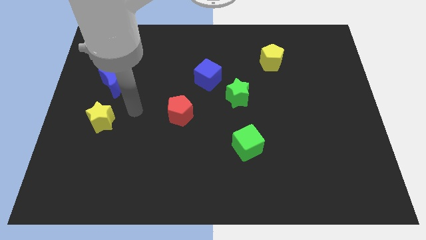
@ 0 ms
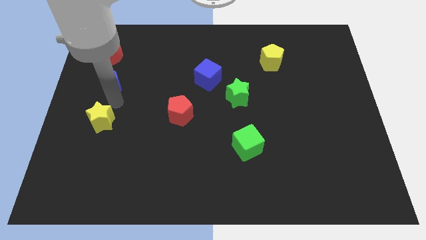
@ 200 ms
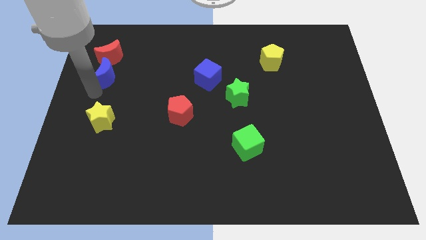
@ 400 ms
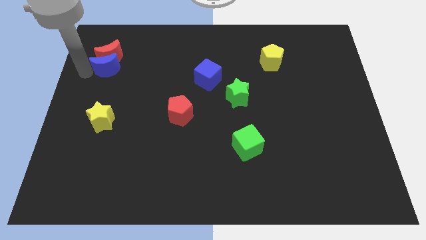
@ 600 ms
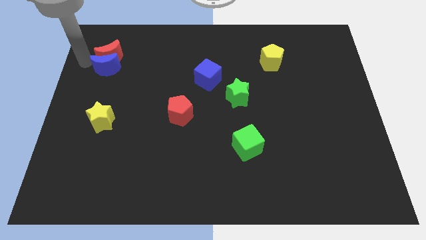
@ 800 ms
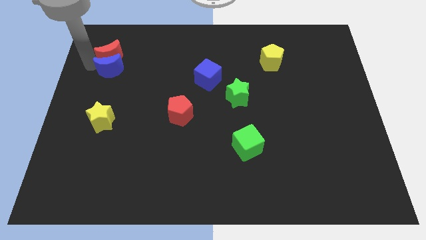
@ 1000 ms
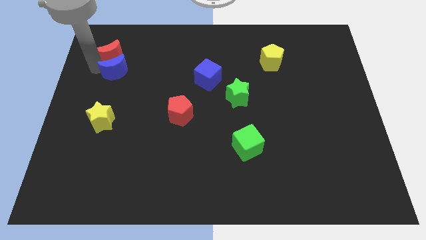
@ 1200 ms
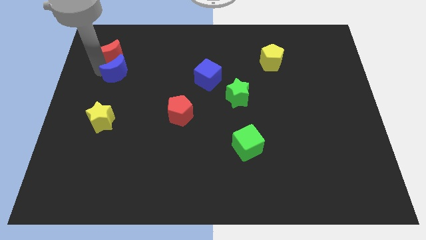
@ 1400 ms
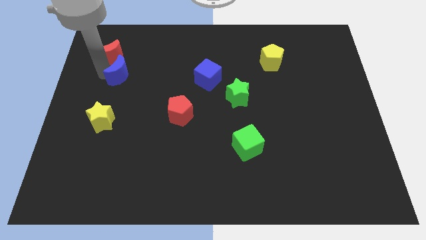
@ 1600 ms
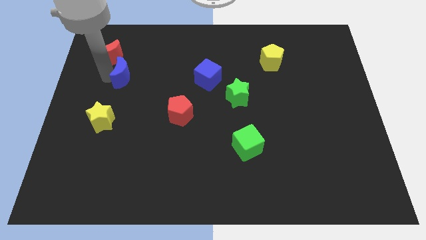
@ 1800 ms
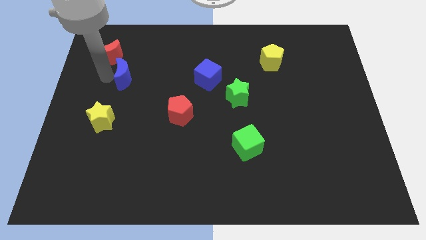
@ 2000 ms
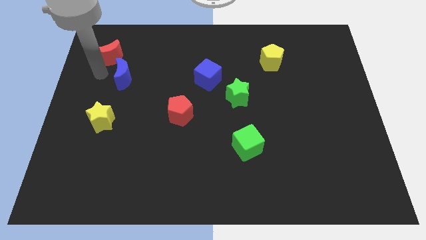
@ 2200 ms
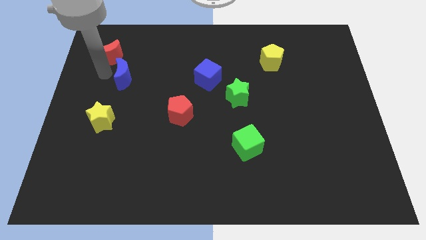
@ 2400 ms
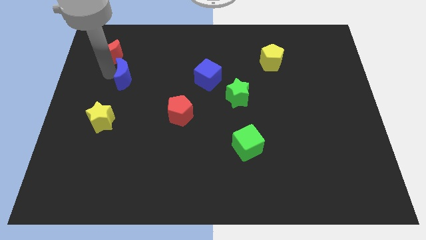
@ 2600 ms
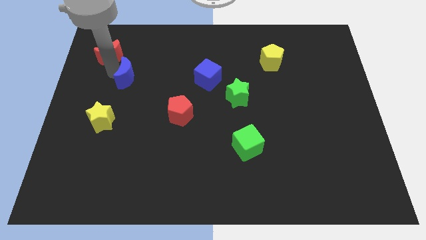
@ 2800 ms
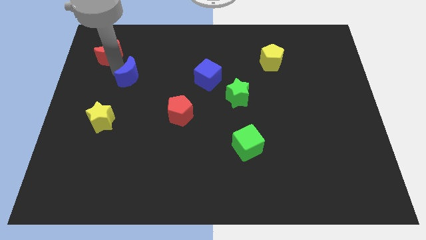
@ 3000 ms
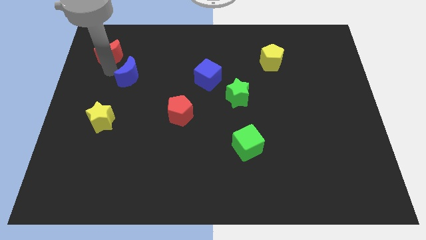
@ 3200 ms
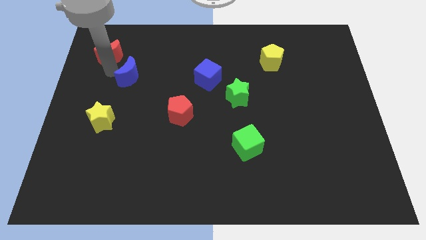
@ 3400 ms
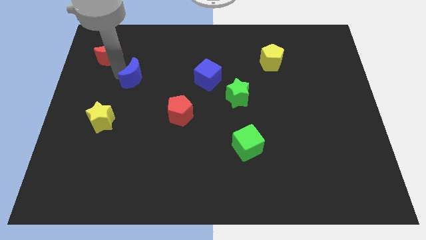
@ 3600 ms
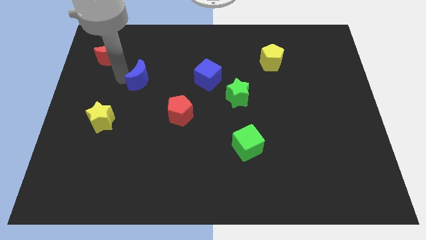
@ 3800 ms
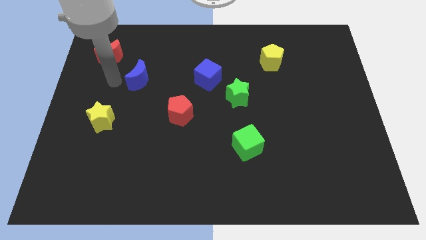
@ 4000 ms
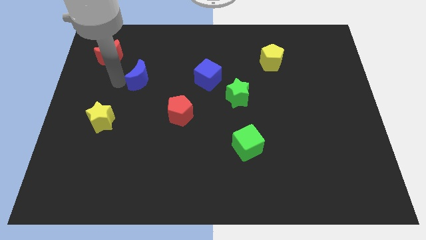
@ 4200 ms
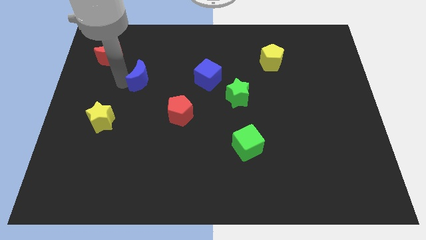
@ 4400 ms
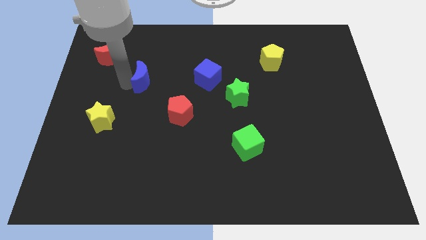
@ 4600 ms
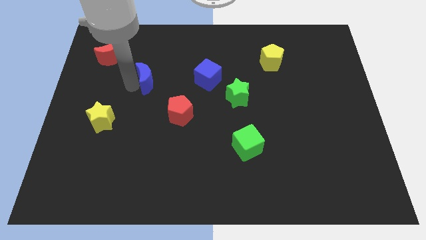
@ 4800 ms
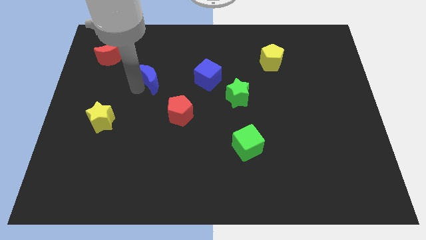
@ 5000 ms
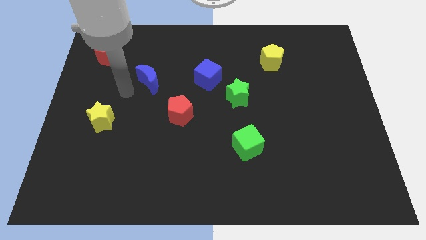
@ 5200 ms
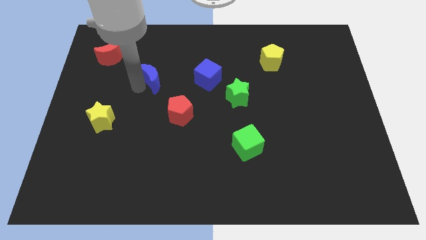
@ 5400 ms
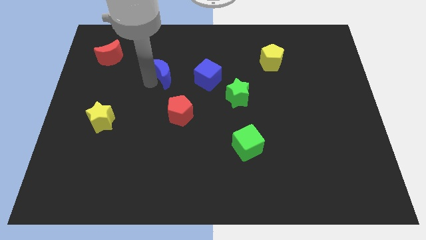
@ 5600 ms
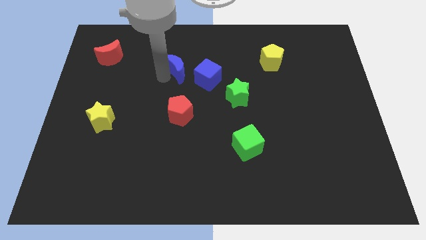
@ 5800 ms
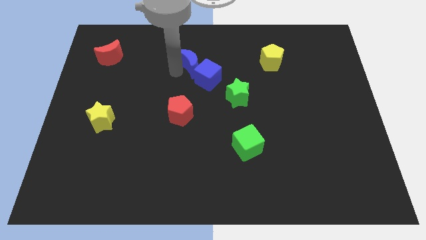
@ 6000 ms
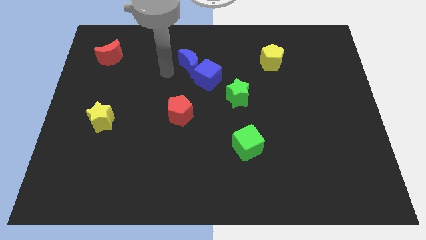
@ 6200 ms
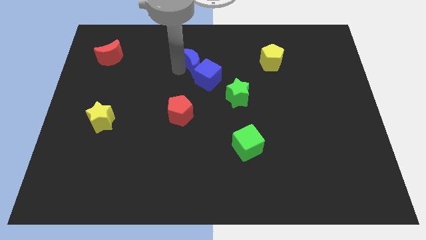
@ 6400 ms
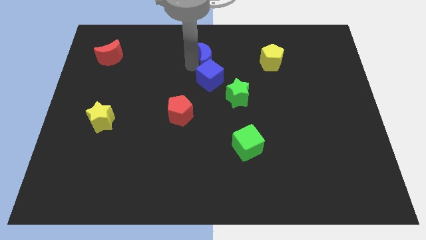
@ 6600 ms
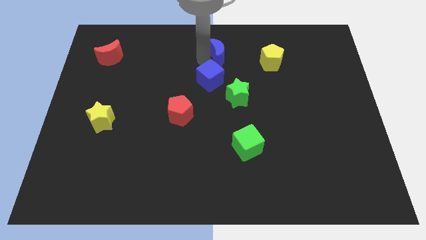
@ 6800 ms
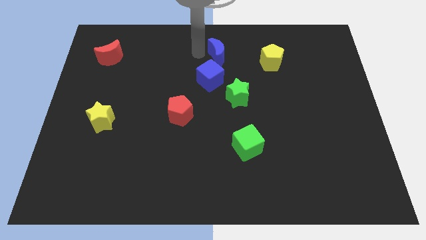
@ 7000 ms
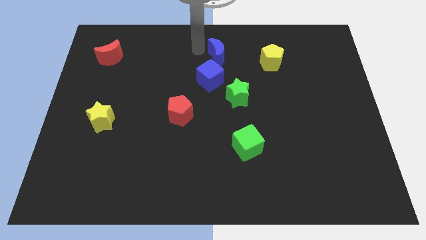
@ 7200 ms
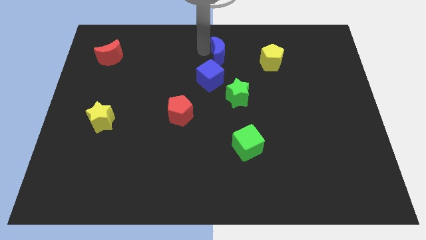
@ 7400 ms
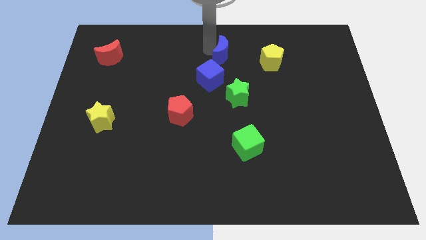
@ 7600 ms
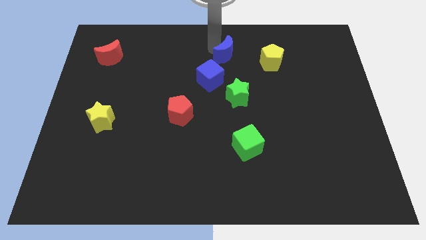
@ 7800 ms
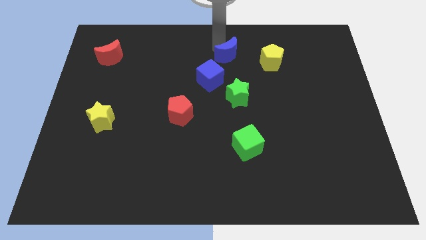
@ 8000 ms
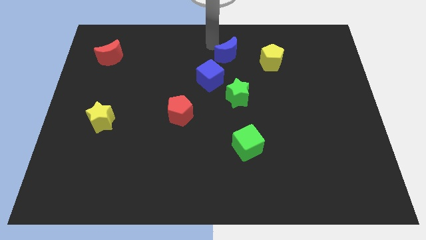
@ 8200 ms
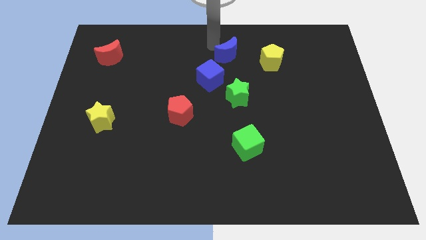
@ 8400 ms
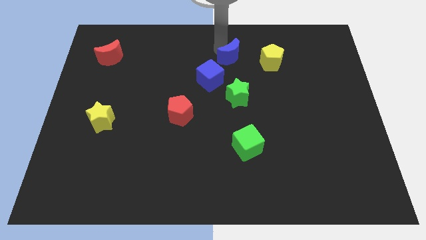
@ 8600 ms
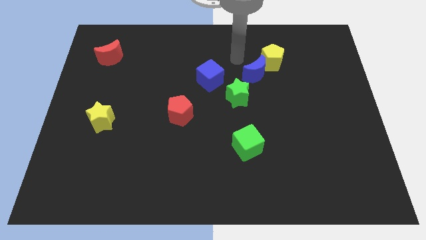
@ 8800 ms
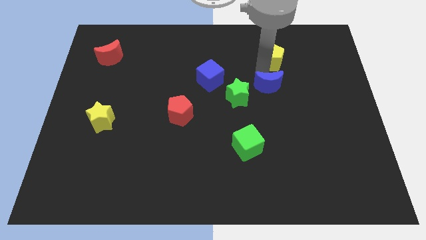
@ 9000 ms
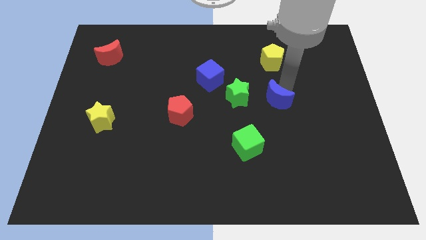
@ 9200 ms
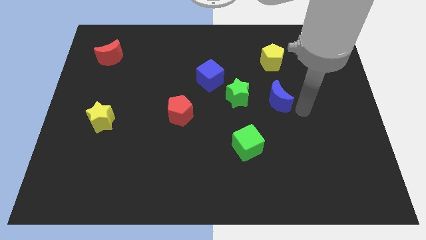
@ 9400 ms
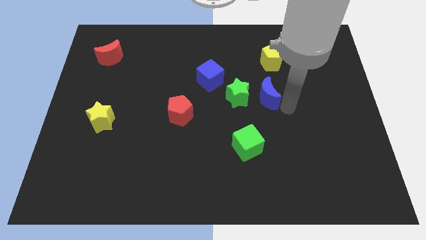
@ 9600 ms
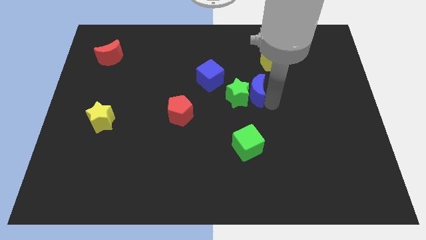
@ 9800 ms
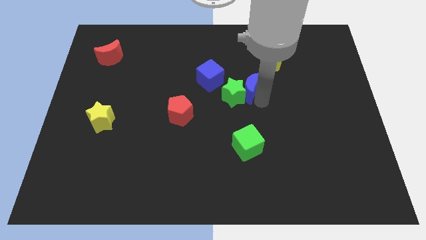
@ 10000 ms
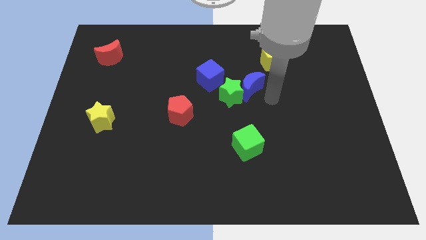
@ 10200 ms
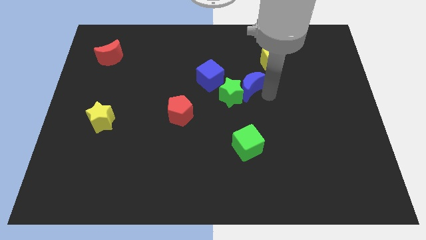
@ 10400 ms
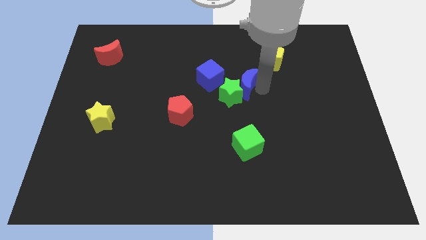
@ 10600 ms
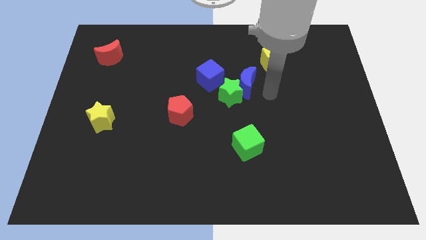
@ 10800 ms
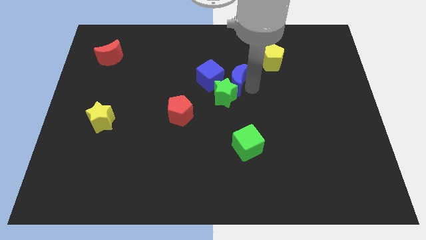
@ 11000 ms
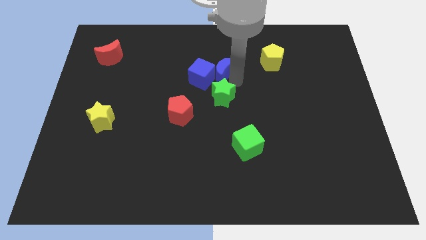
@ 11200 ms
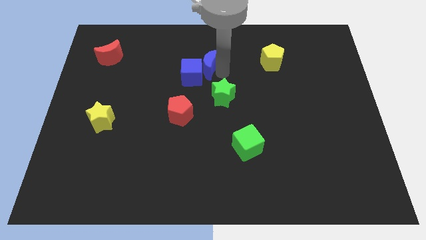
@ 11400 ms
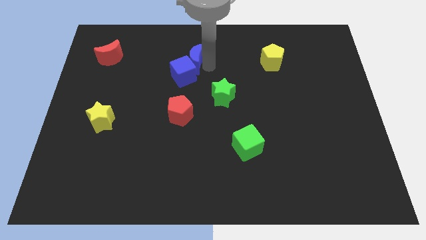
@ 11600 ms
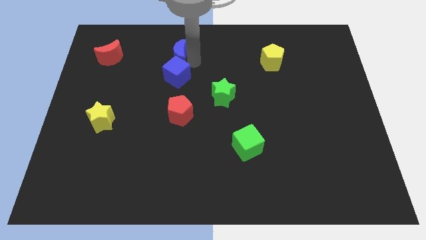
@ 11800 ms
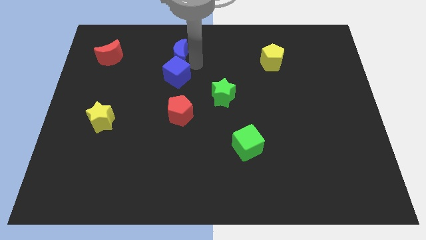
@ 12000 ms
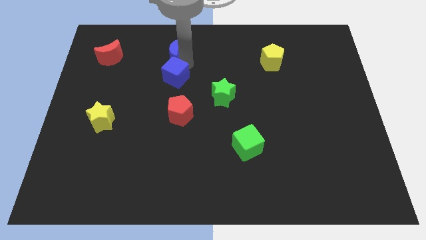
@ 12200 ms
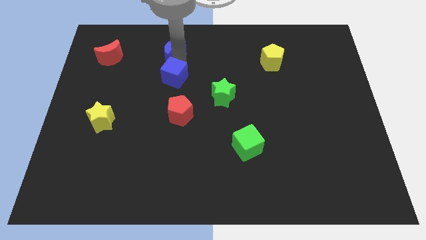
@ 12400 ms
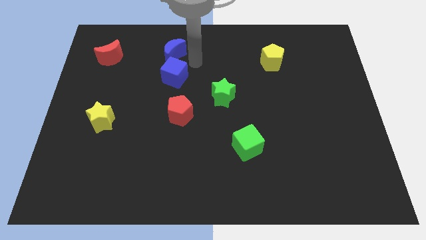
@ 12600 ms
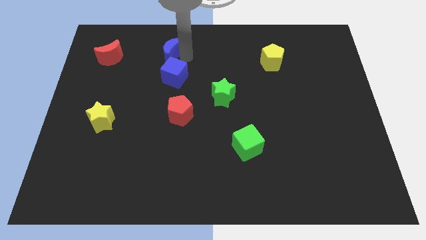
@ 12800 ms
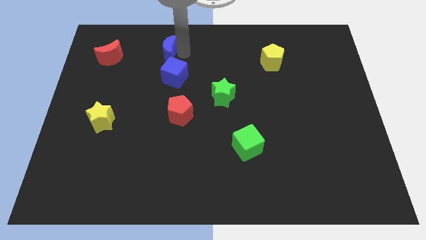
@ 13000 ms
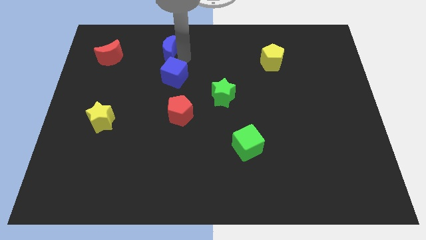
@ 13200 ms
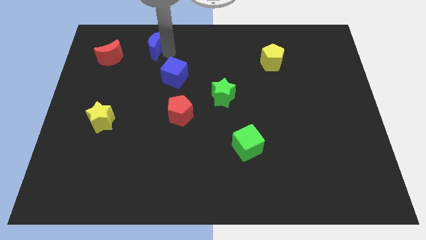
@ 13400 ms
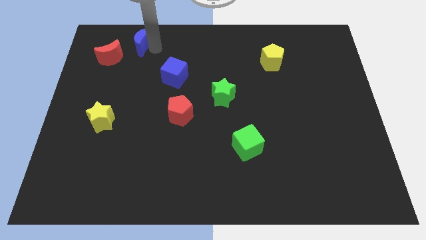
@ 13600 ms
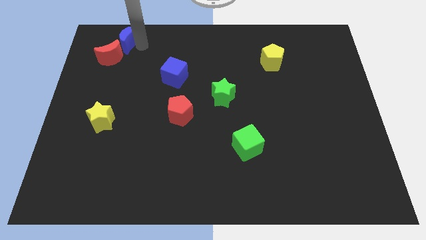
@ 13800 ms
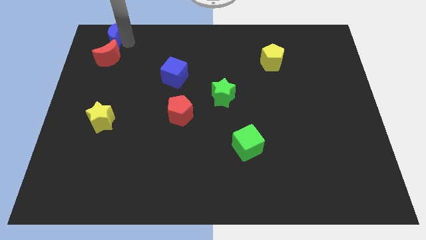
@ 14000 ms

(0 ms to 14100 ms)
move the blue moon to the upper left corner
